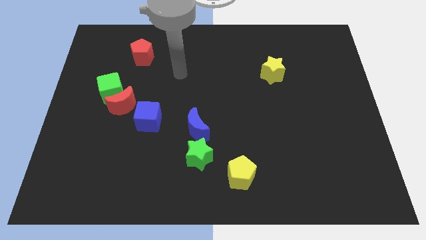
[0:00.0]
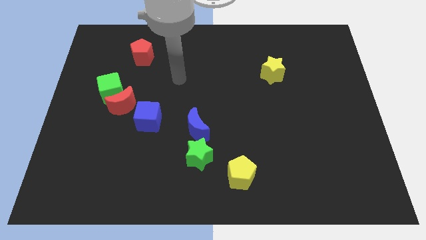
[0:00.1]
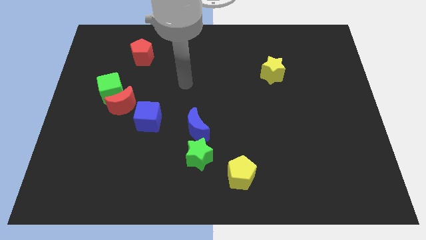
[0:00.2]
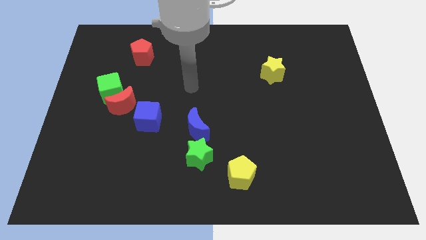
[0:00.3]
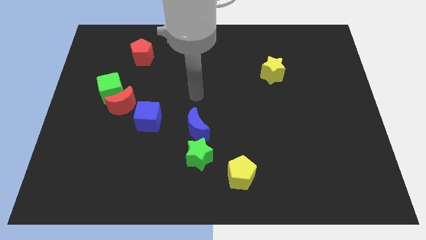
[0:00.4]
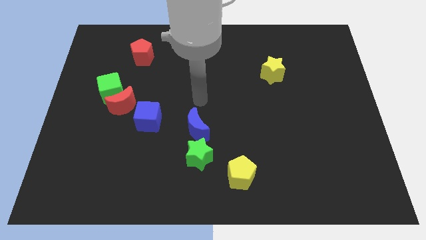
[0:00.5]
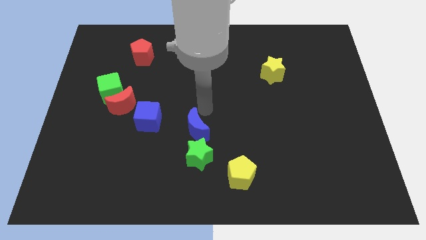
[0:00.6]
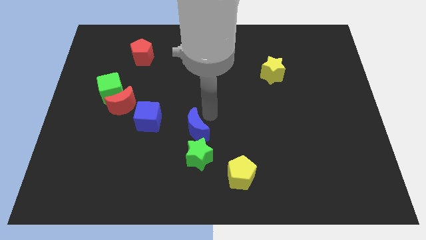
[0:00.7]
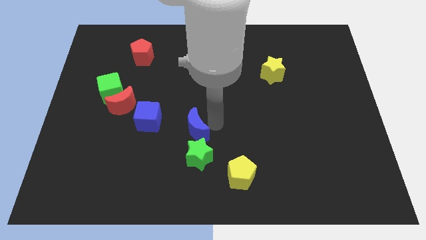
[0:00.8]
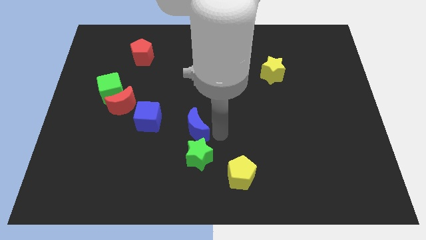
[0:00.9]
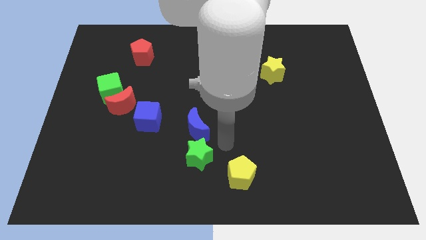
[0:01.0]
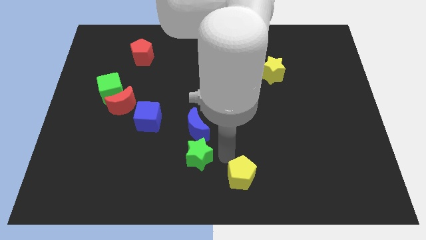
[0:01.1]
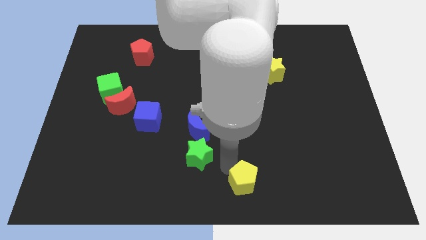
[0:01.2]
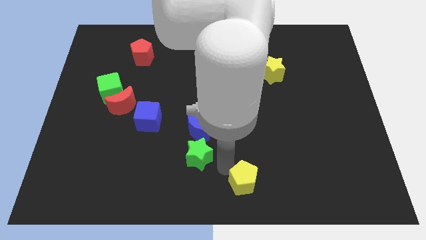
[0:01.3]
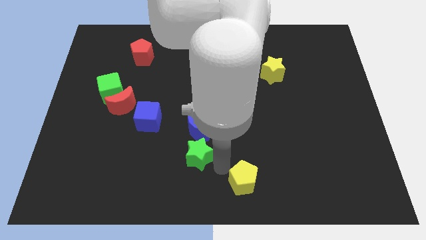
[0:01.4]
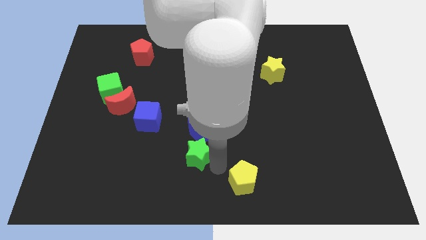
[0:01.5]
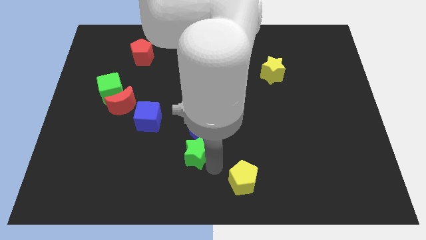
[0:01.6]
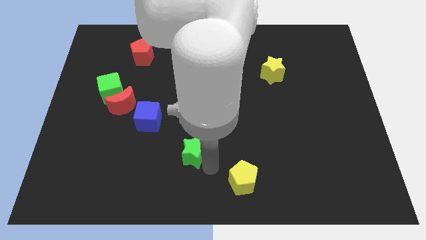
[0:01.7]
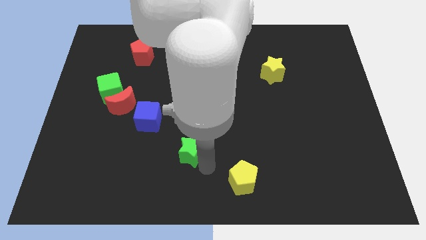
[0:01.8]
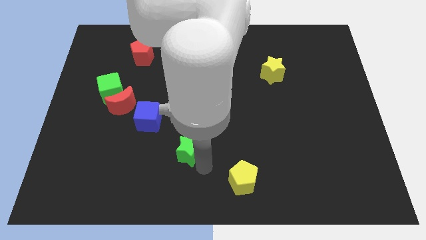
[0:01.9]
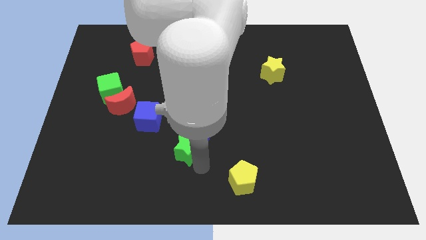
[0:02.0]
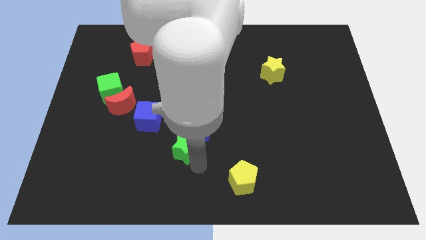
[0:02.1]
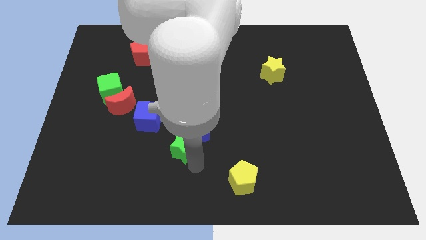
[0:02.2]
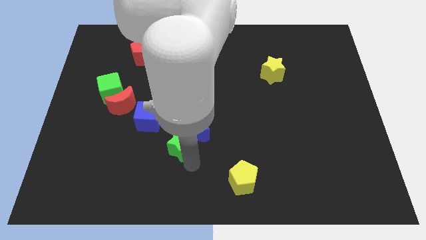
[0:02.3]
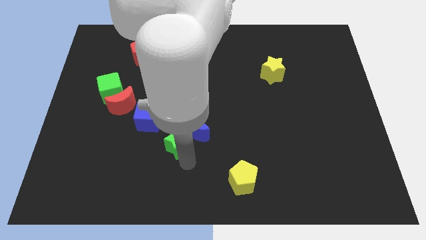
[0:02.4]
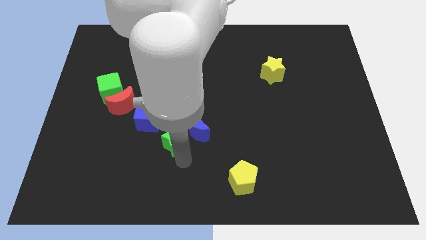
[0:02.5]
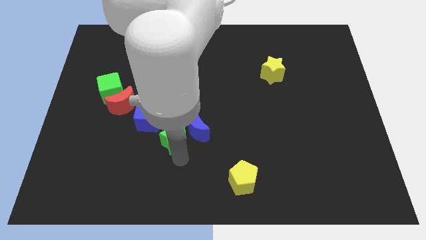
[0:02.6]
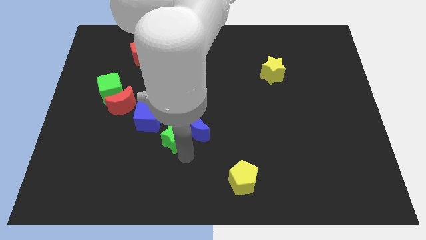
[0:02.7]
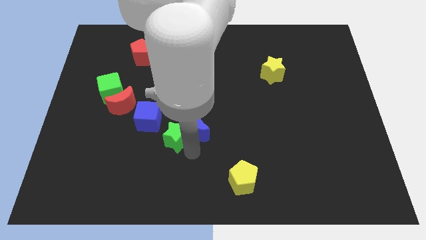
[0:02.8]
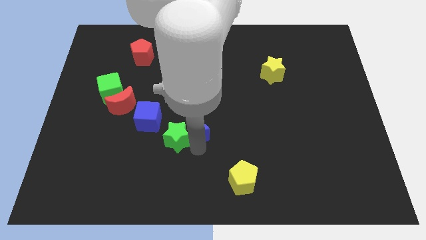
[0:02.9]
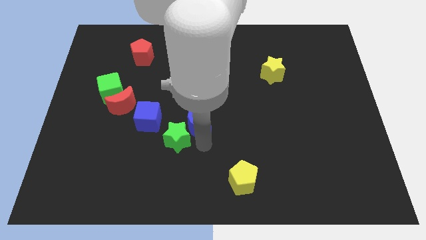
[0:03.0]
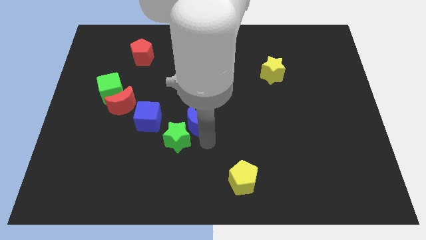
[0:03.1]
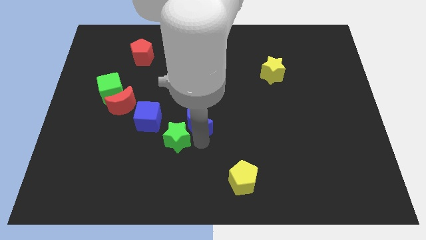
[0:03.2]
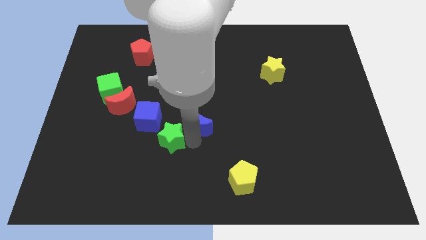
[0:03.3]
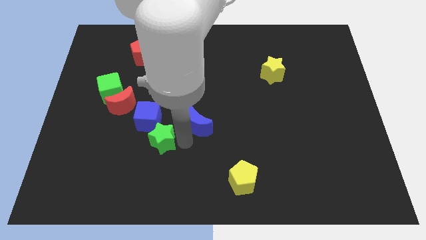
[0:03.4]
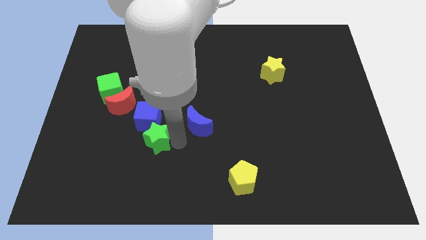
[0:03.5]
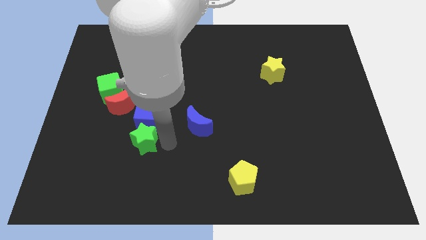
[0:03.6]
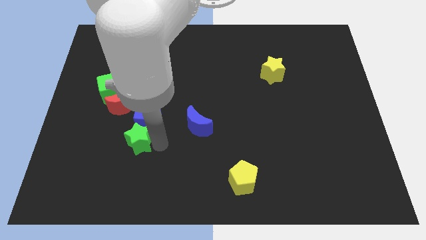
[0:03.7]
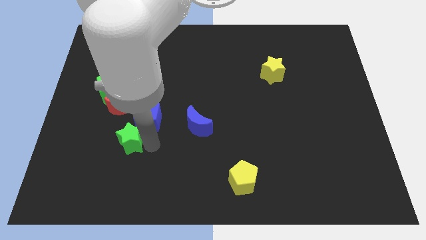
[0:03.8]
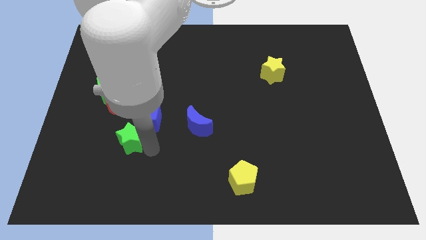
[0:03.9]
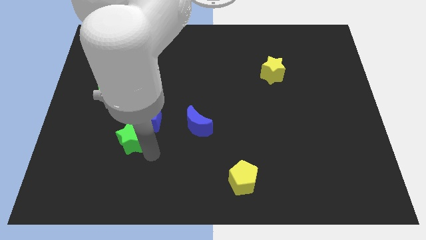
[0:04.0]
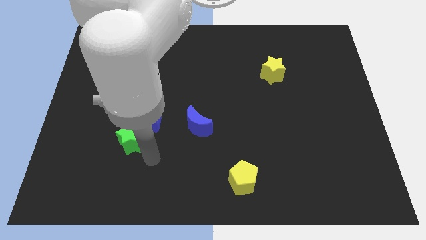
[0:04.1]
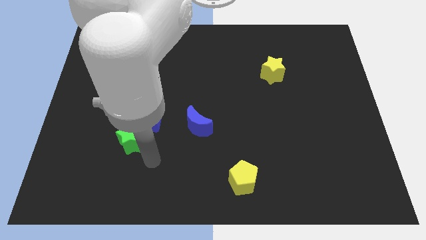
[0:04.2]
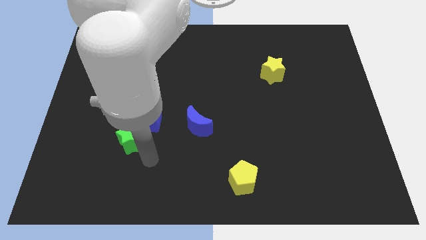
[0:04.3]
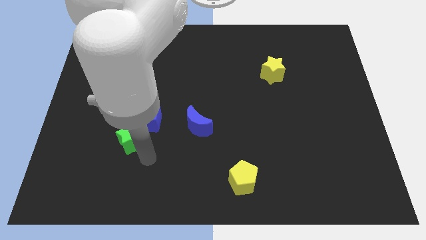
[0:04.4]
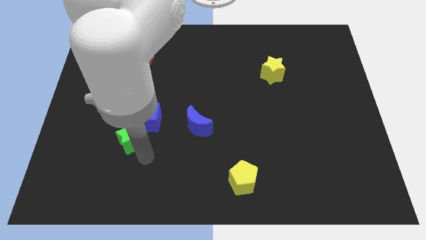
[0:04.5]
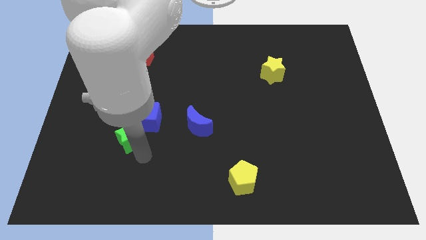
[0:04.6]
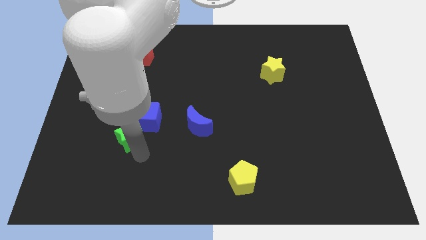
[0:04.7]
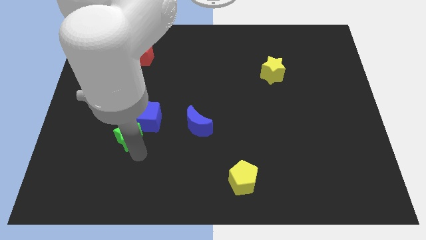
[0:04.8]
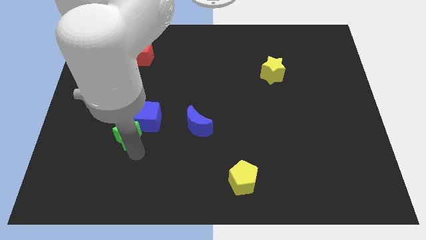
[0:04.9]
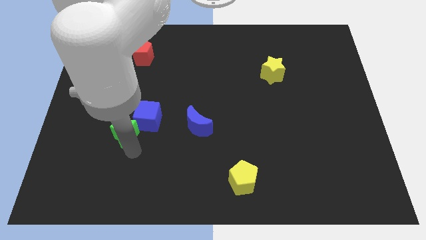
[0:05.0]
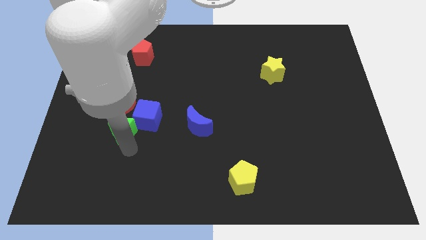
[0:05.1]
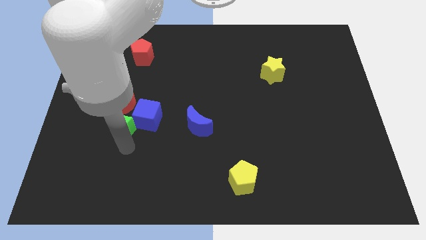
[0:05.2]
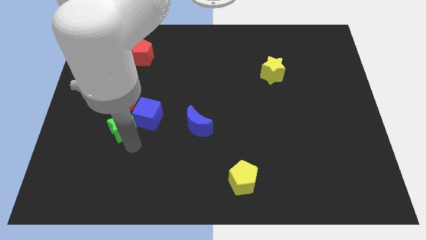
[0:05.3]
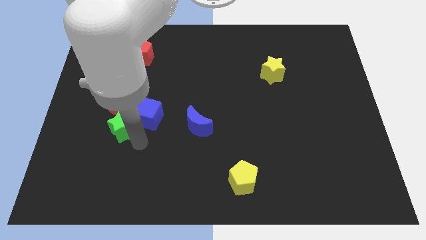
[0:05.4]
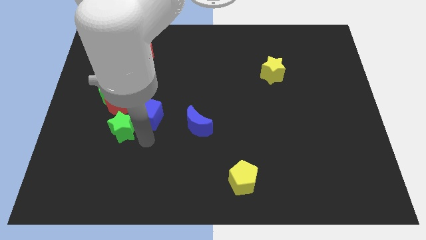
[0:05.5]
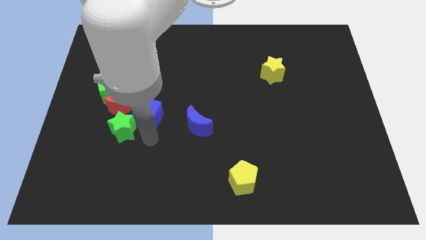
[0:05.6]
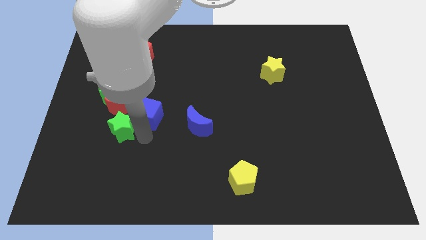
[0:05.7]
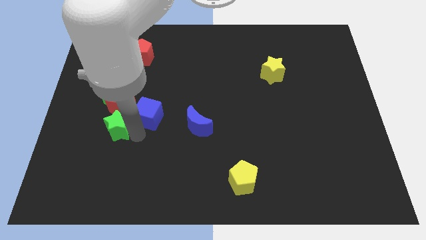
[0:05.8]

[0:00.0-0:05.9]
put the green star to the bottom left of the red moon

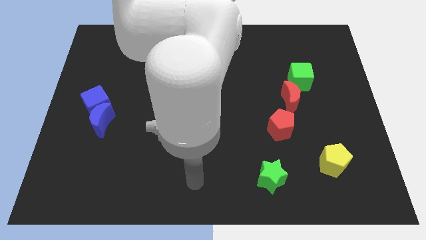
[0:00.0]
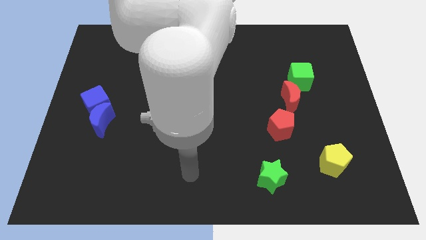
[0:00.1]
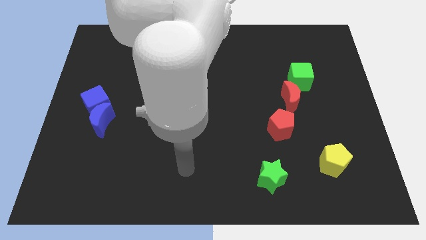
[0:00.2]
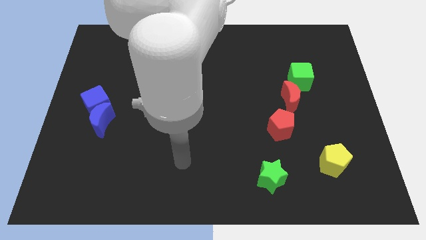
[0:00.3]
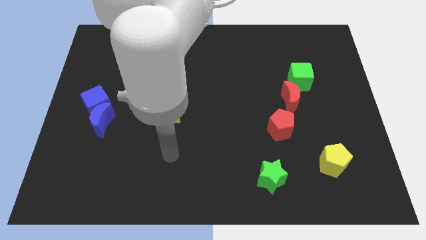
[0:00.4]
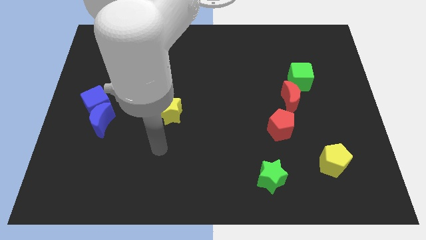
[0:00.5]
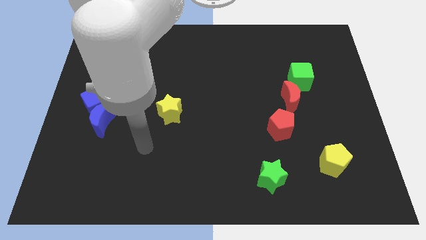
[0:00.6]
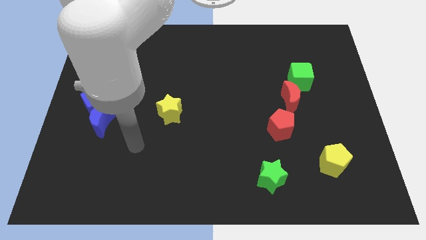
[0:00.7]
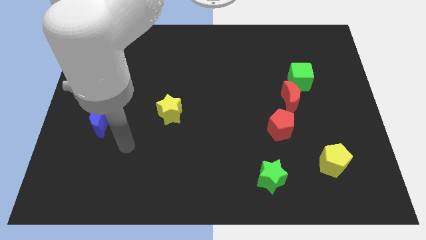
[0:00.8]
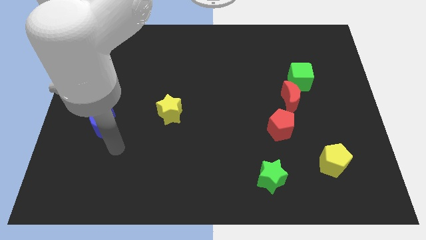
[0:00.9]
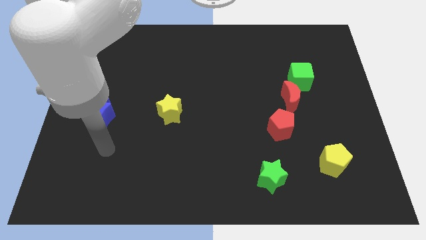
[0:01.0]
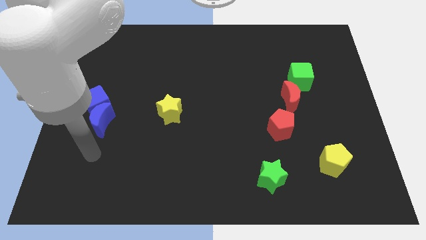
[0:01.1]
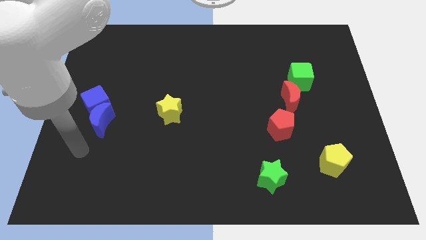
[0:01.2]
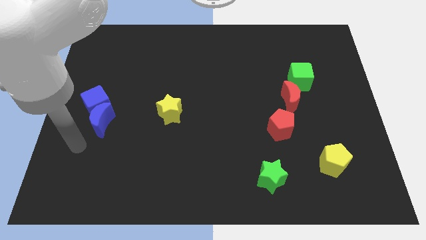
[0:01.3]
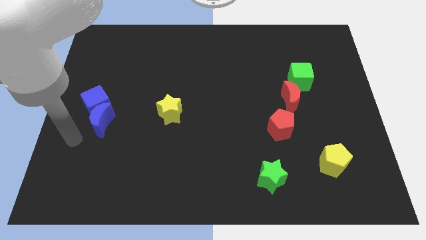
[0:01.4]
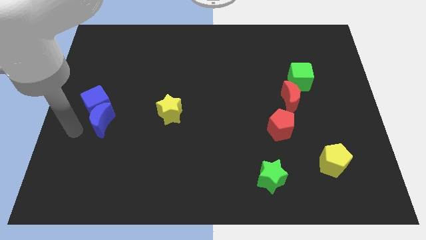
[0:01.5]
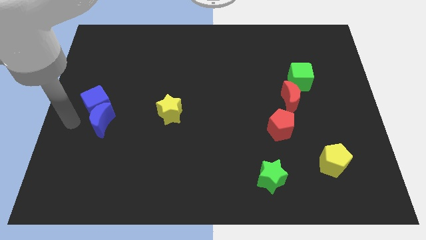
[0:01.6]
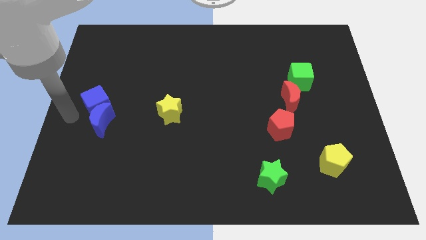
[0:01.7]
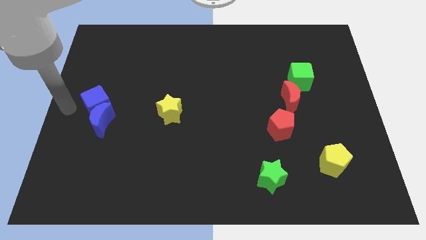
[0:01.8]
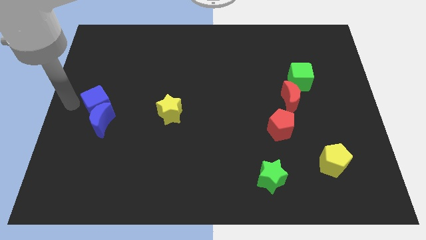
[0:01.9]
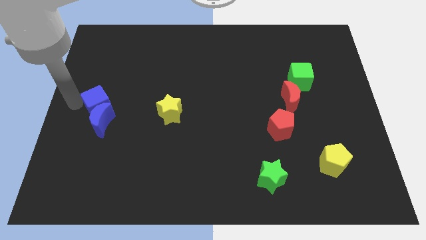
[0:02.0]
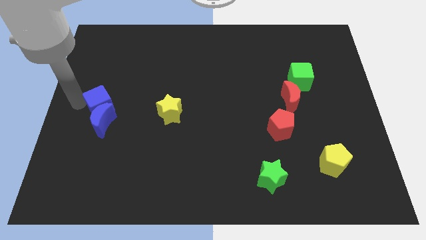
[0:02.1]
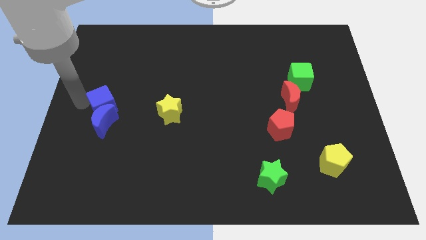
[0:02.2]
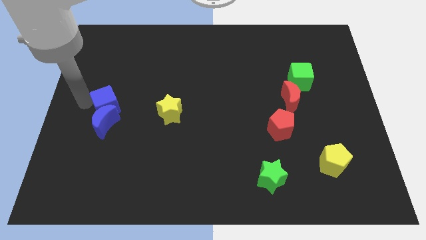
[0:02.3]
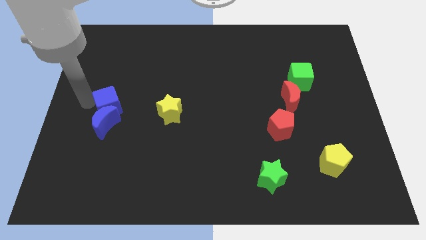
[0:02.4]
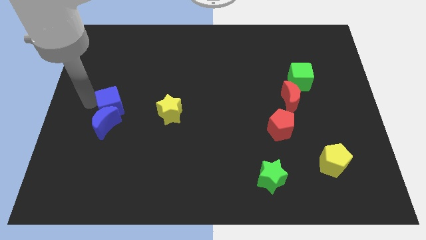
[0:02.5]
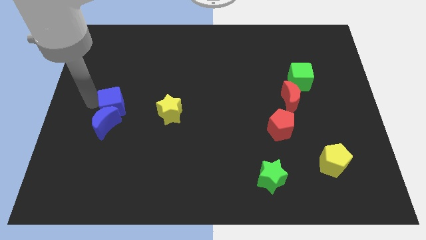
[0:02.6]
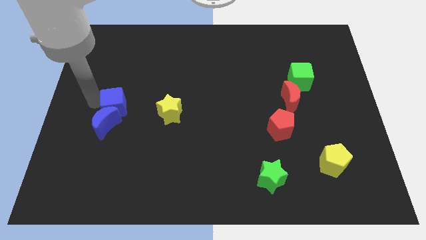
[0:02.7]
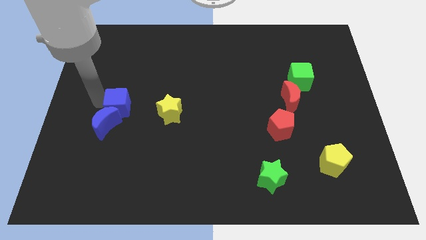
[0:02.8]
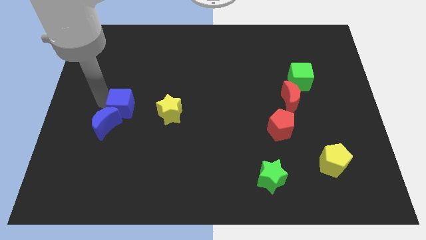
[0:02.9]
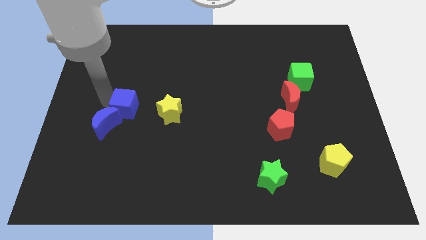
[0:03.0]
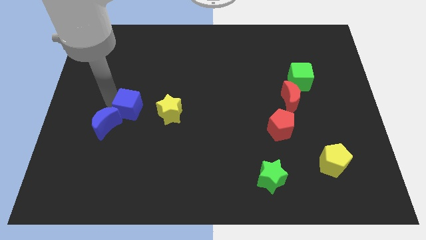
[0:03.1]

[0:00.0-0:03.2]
slide the blue cube to the right of the blue moon
